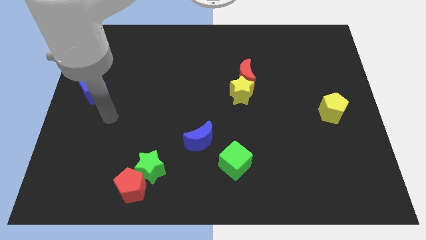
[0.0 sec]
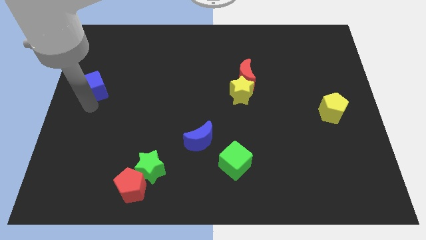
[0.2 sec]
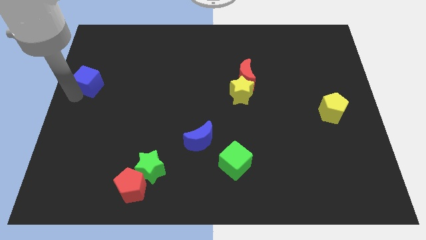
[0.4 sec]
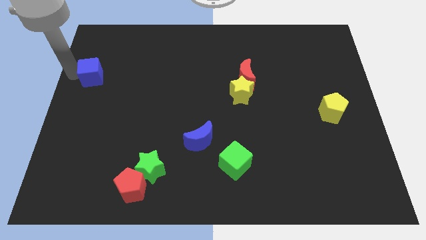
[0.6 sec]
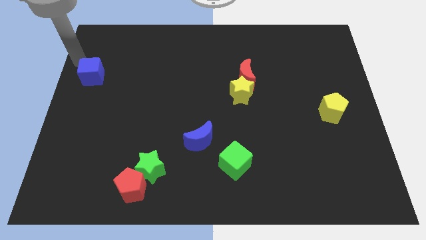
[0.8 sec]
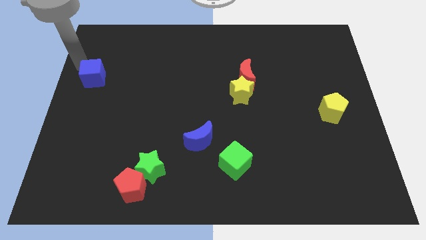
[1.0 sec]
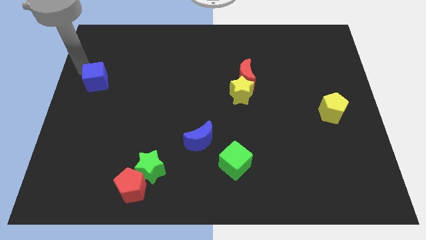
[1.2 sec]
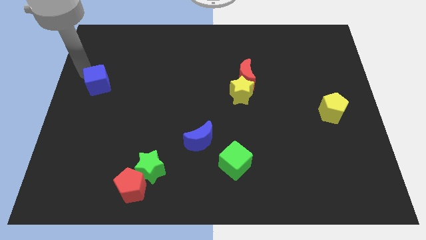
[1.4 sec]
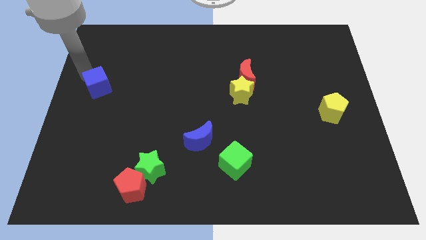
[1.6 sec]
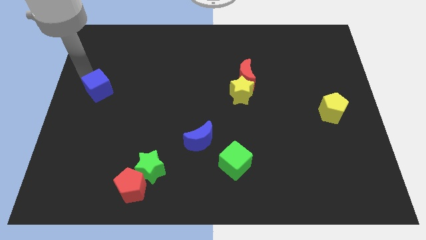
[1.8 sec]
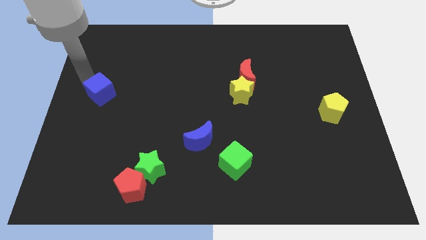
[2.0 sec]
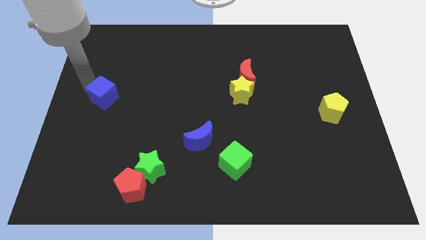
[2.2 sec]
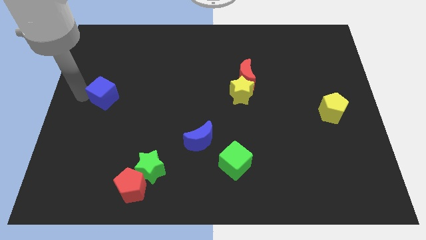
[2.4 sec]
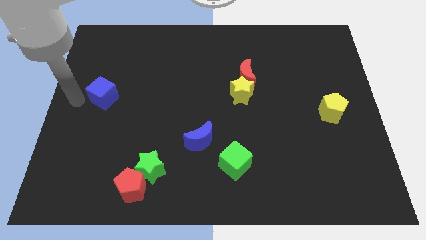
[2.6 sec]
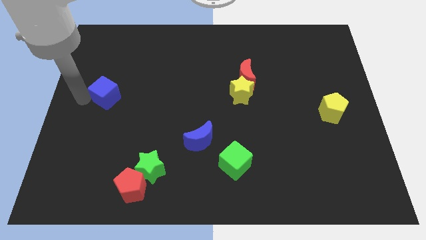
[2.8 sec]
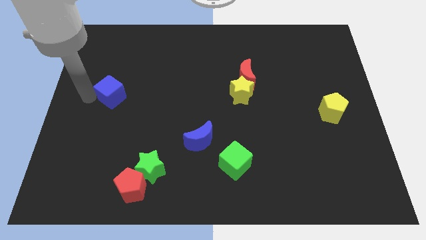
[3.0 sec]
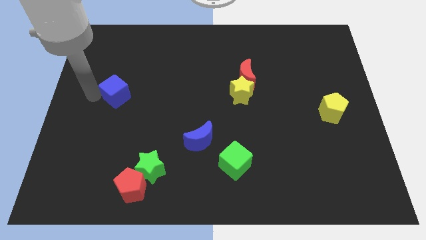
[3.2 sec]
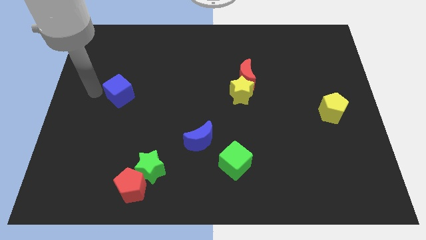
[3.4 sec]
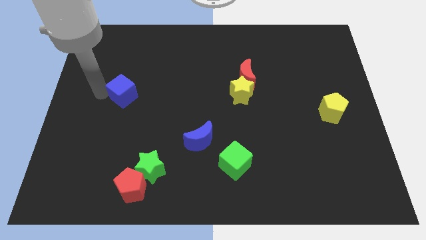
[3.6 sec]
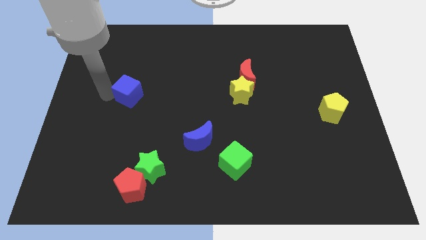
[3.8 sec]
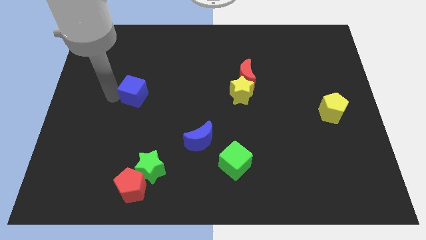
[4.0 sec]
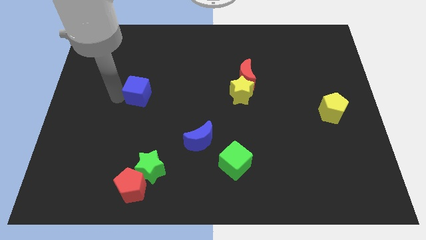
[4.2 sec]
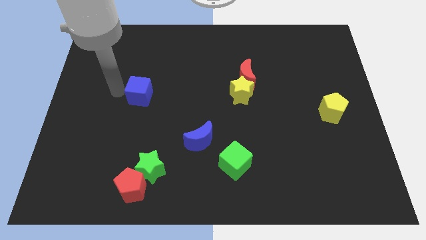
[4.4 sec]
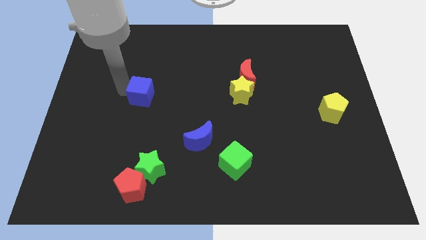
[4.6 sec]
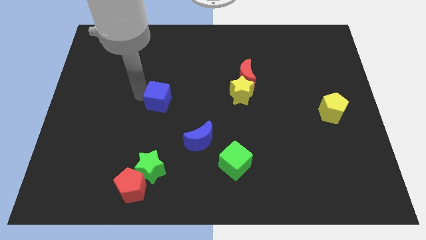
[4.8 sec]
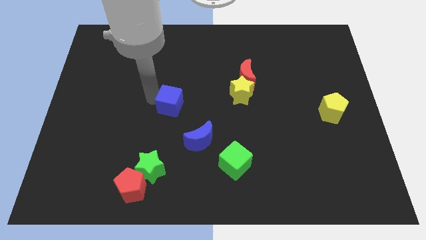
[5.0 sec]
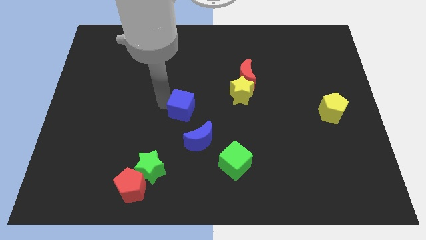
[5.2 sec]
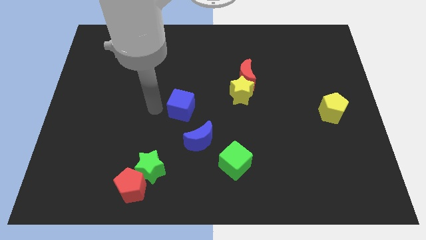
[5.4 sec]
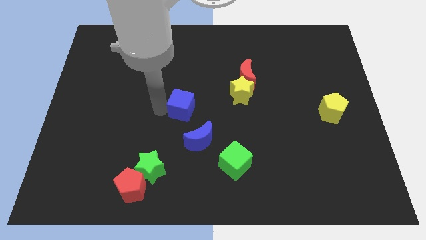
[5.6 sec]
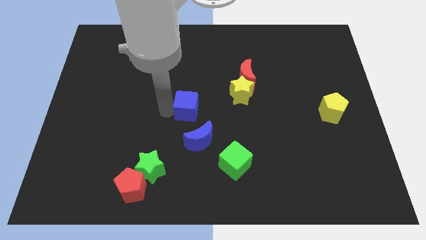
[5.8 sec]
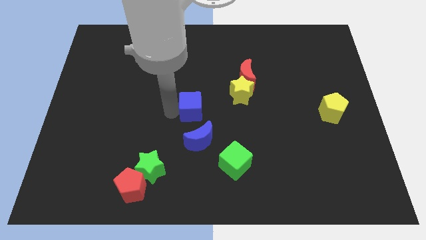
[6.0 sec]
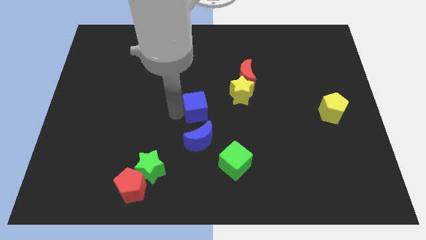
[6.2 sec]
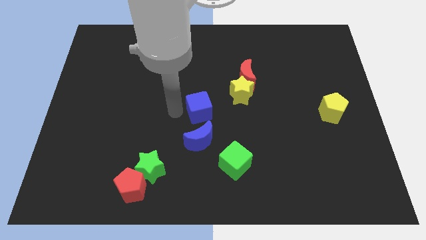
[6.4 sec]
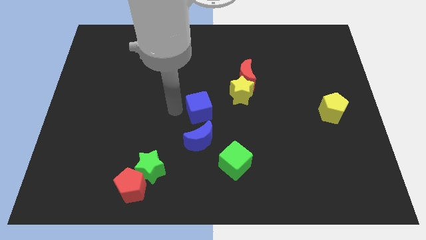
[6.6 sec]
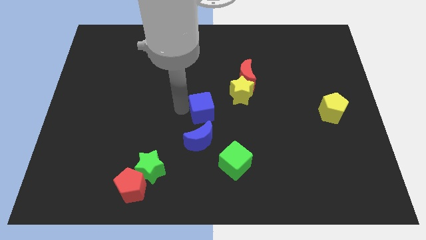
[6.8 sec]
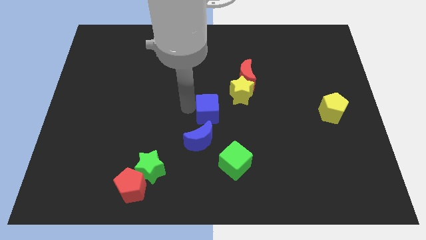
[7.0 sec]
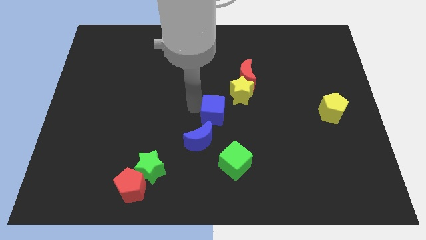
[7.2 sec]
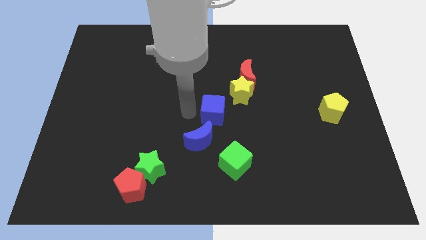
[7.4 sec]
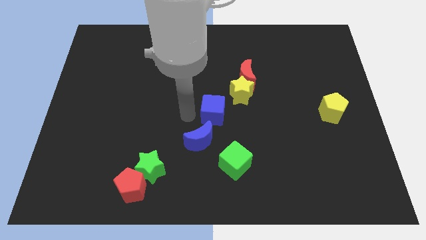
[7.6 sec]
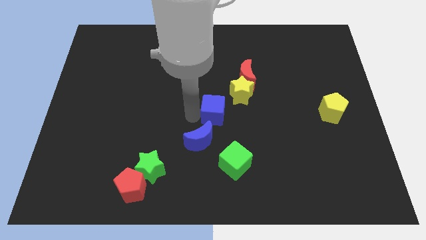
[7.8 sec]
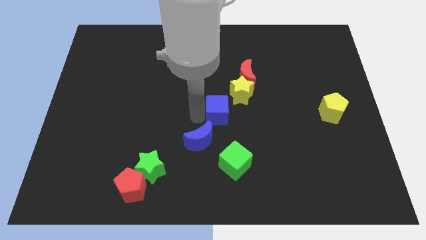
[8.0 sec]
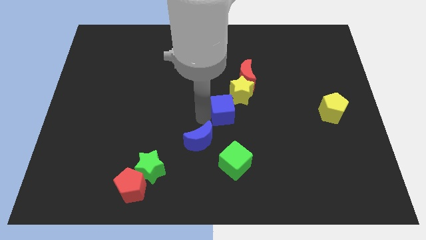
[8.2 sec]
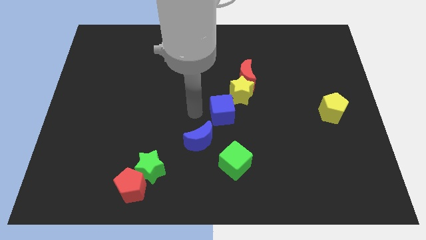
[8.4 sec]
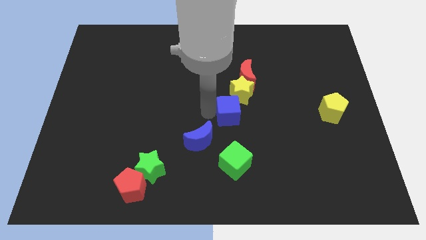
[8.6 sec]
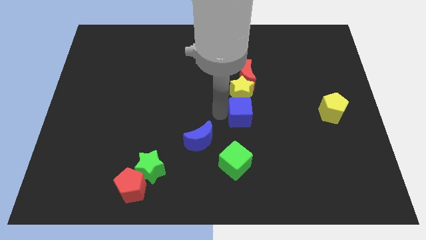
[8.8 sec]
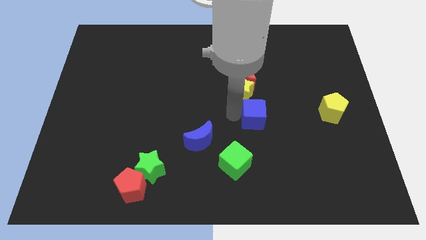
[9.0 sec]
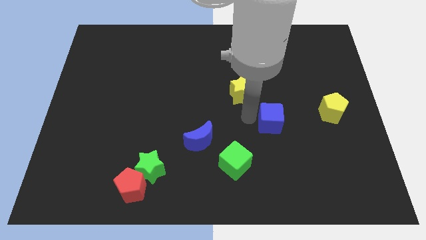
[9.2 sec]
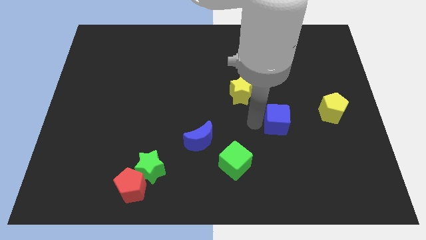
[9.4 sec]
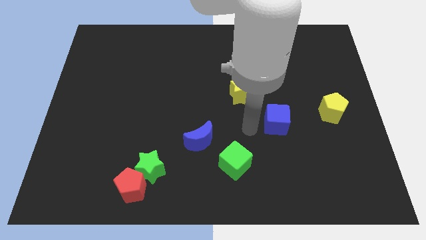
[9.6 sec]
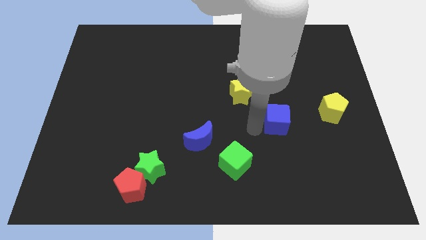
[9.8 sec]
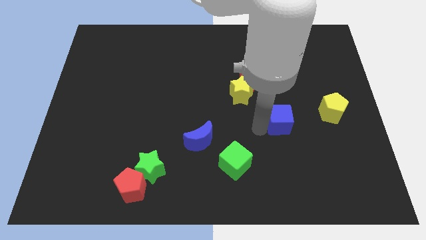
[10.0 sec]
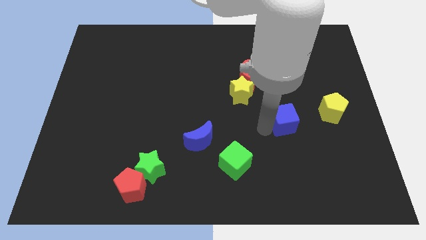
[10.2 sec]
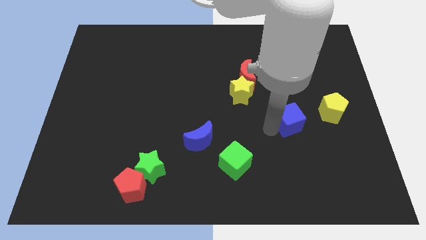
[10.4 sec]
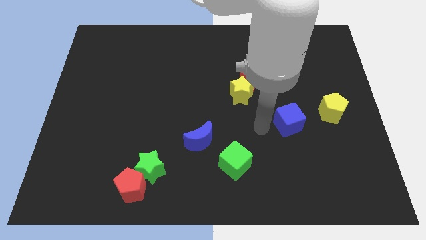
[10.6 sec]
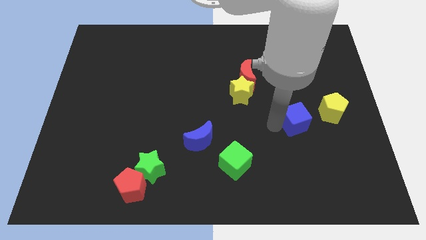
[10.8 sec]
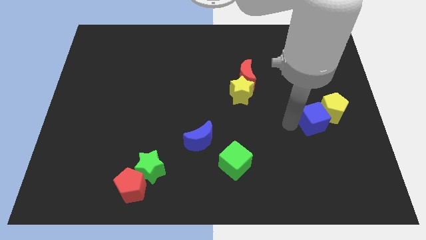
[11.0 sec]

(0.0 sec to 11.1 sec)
push the blue cube next to the yellow pentagon

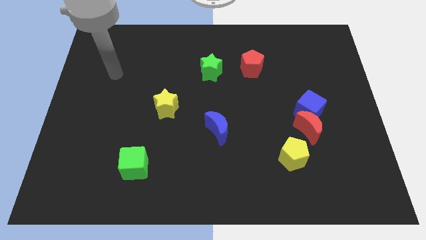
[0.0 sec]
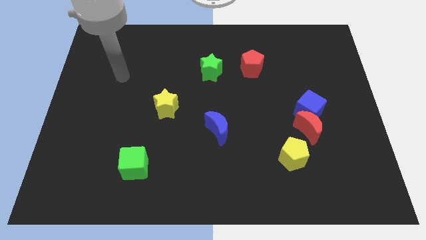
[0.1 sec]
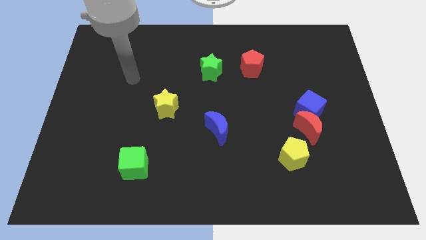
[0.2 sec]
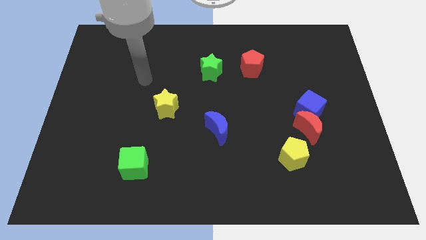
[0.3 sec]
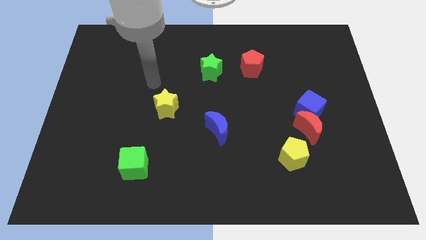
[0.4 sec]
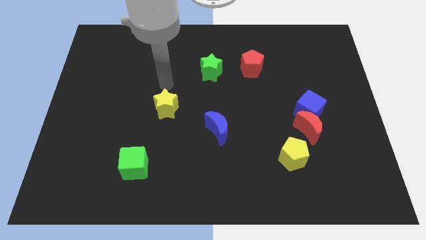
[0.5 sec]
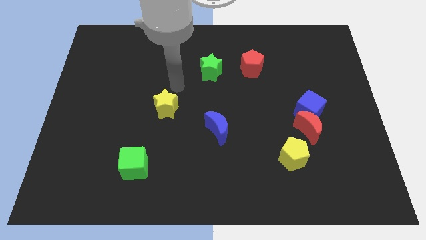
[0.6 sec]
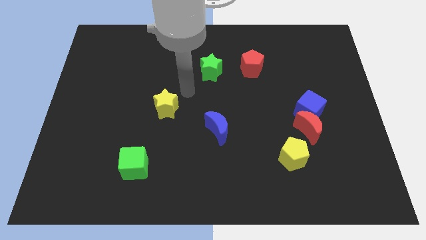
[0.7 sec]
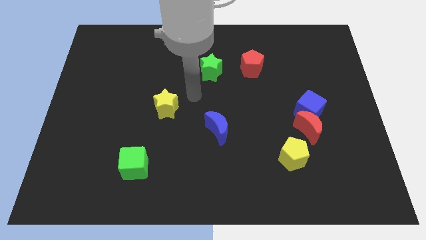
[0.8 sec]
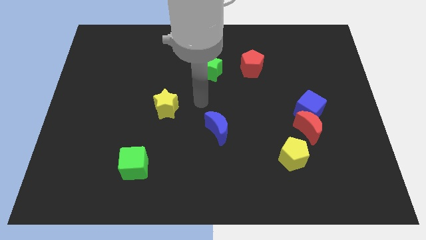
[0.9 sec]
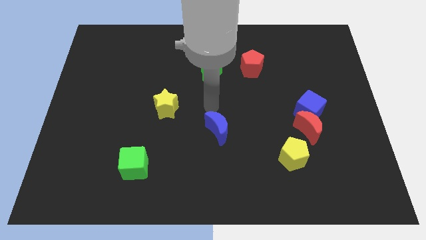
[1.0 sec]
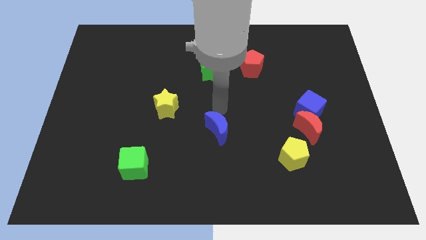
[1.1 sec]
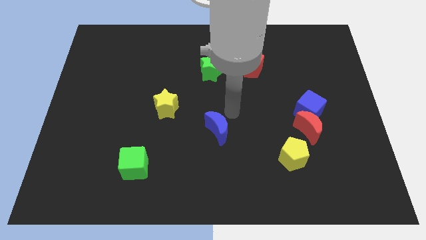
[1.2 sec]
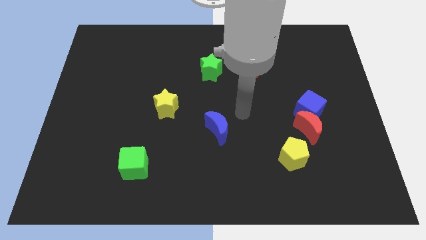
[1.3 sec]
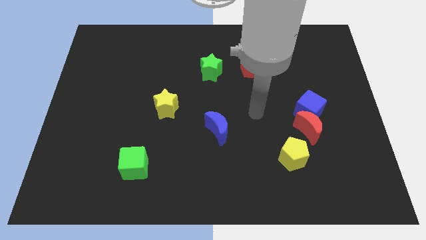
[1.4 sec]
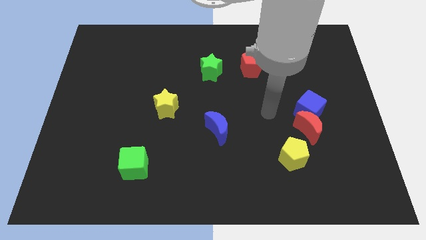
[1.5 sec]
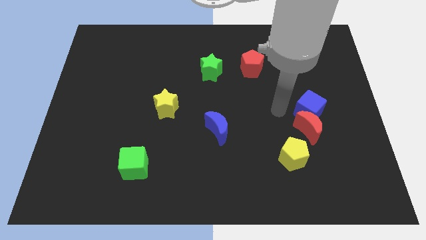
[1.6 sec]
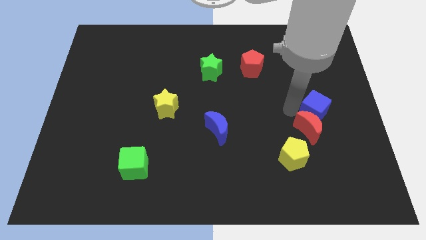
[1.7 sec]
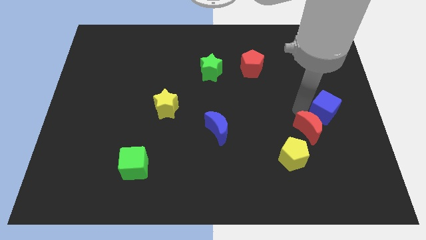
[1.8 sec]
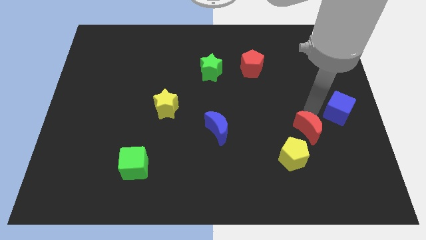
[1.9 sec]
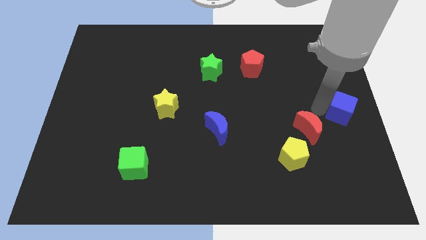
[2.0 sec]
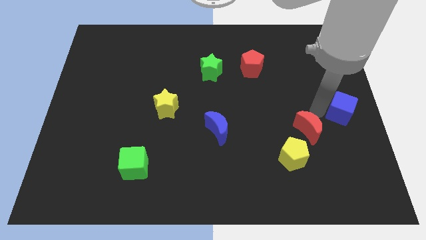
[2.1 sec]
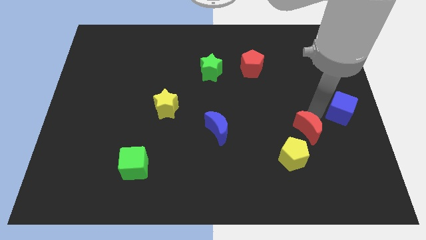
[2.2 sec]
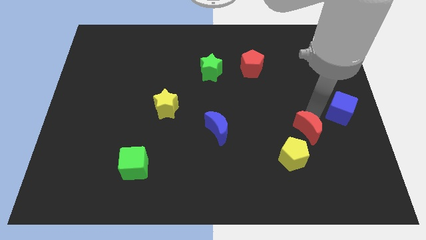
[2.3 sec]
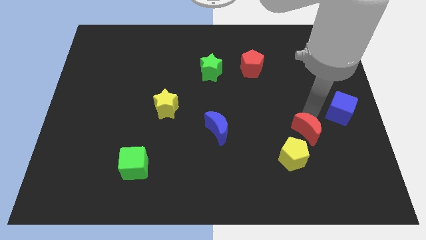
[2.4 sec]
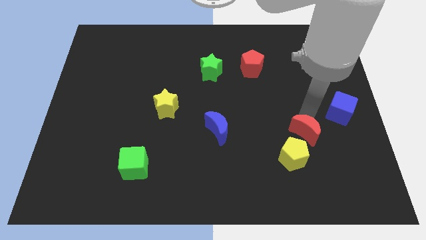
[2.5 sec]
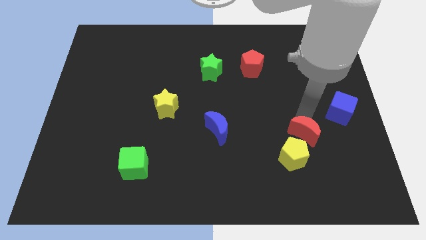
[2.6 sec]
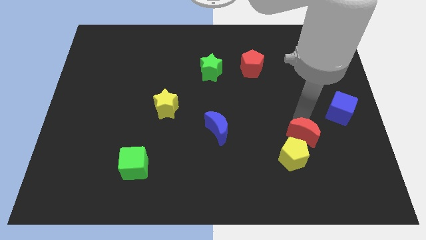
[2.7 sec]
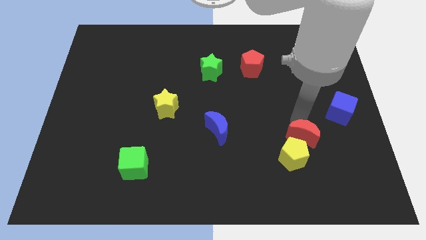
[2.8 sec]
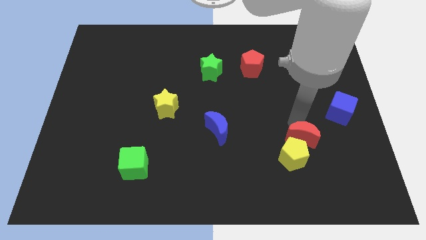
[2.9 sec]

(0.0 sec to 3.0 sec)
push the red moon next to the yellow pentagon
